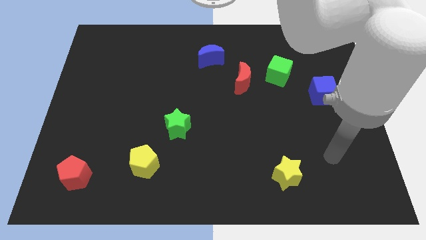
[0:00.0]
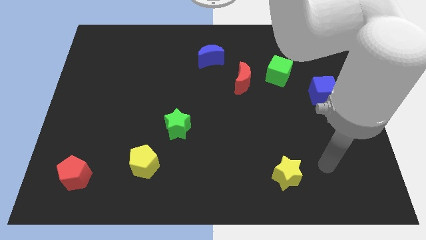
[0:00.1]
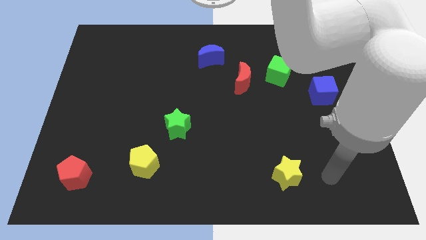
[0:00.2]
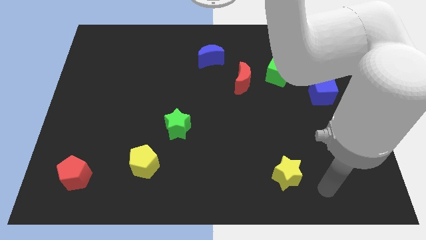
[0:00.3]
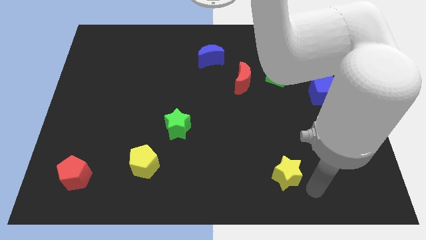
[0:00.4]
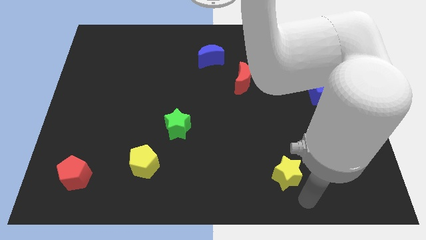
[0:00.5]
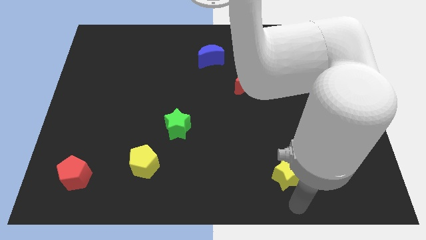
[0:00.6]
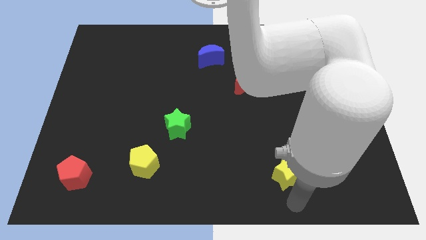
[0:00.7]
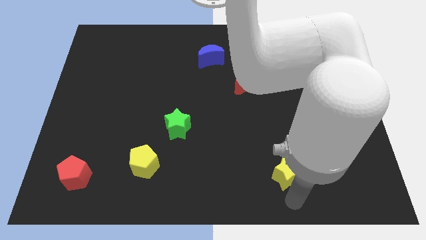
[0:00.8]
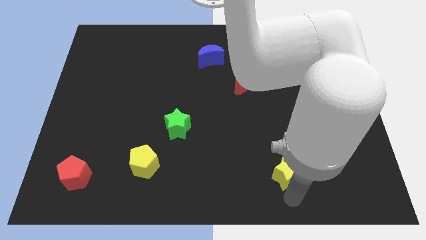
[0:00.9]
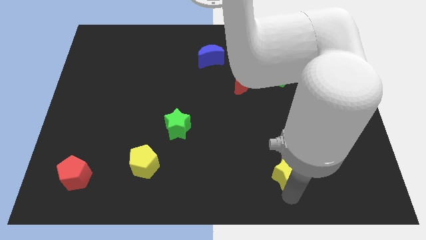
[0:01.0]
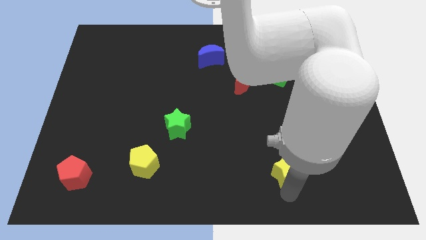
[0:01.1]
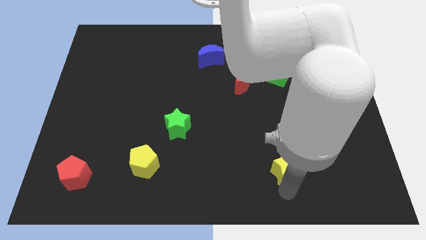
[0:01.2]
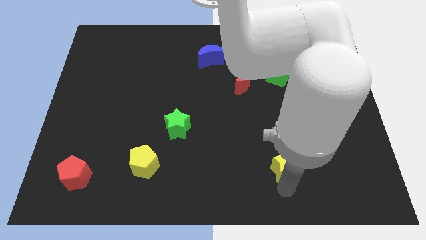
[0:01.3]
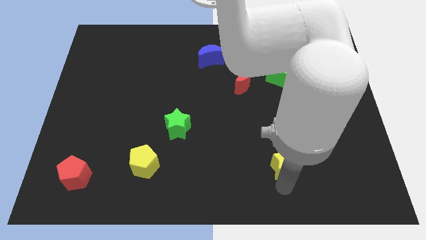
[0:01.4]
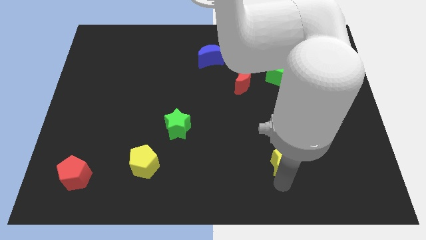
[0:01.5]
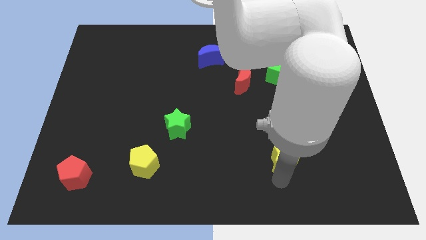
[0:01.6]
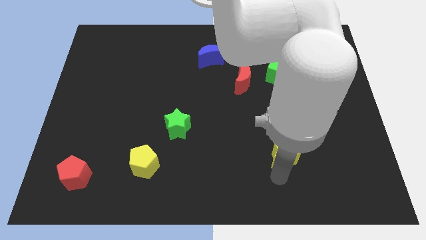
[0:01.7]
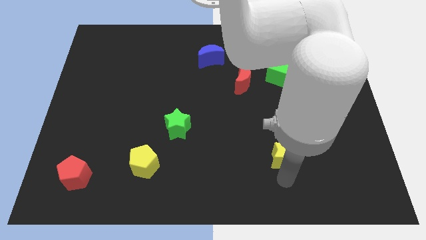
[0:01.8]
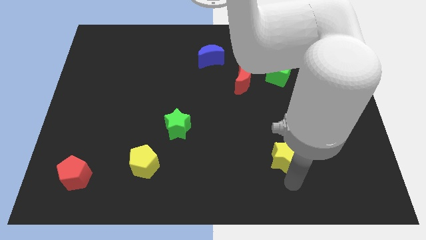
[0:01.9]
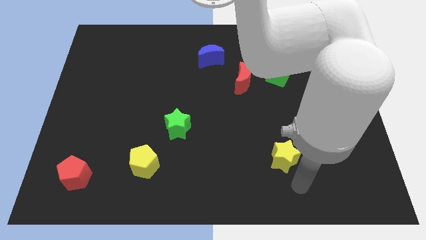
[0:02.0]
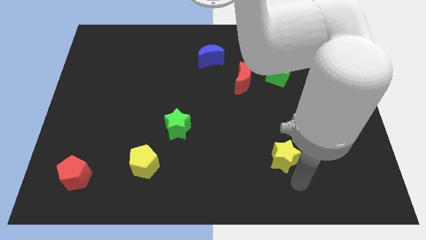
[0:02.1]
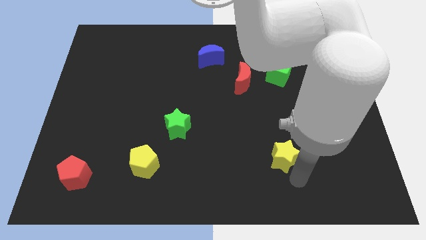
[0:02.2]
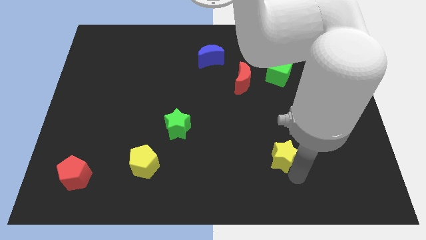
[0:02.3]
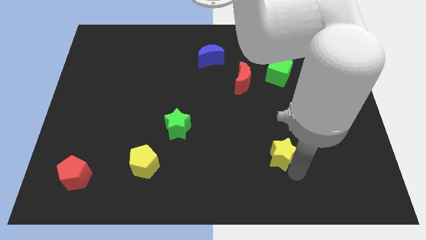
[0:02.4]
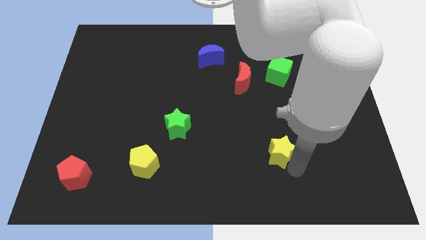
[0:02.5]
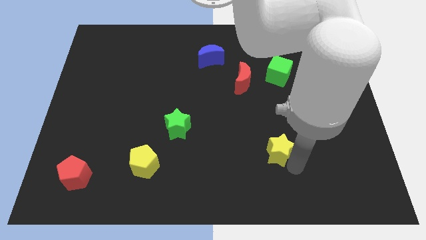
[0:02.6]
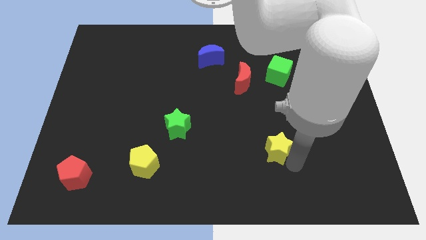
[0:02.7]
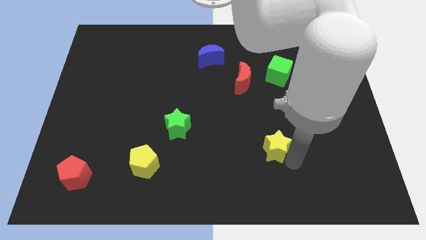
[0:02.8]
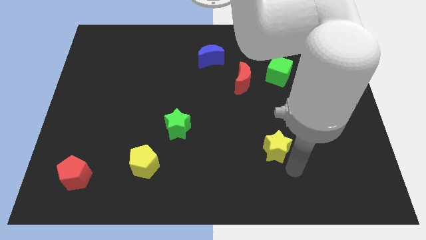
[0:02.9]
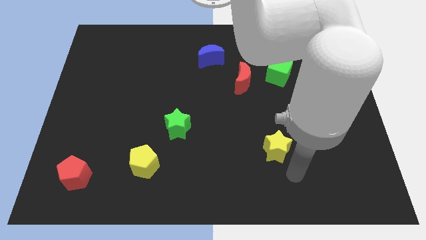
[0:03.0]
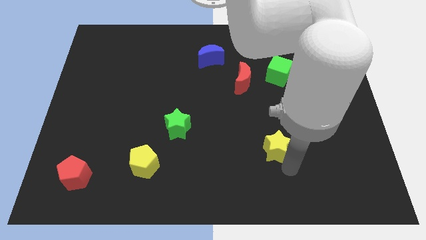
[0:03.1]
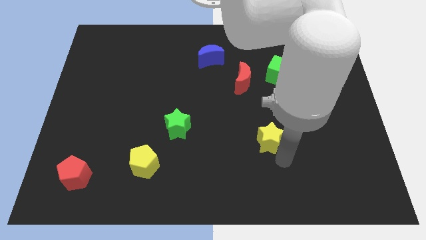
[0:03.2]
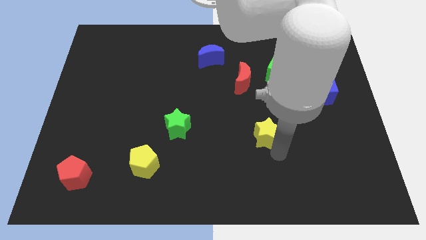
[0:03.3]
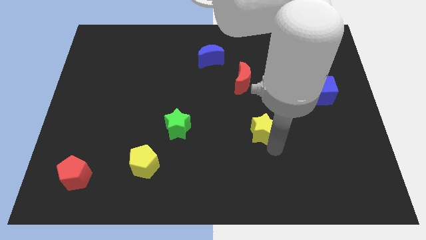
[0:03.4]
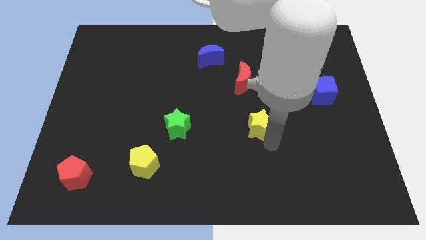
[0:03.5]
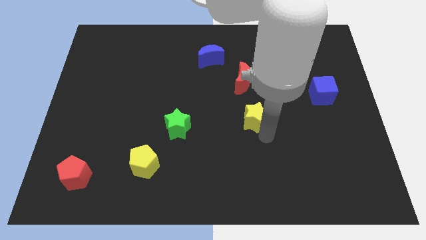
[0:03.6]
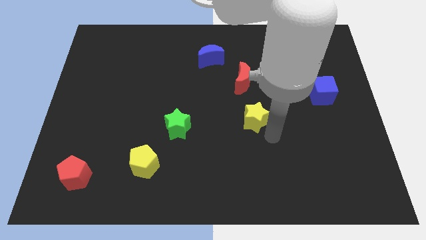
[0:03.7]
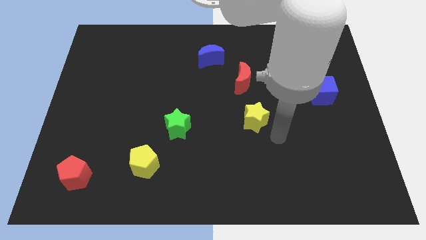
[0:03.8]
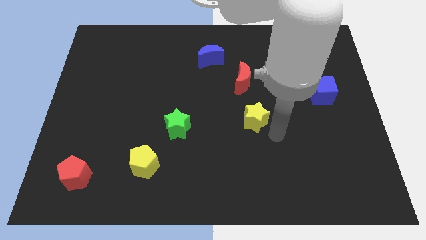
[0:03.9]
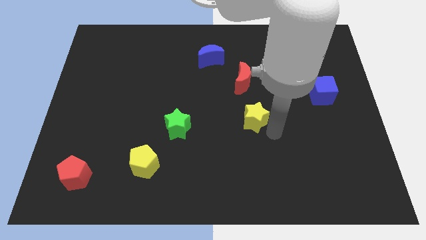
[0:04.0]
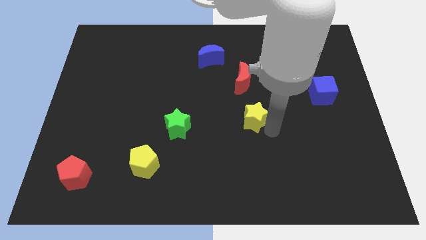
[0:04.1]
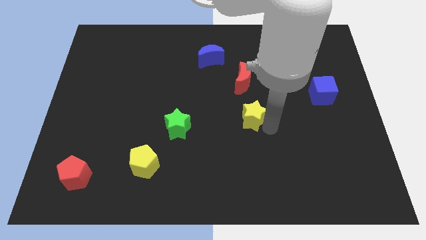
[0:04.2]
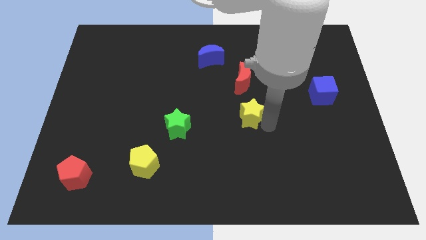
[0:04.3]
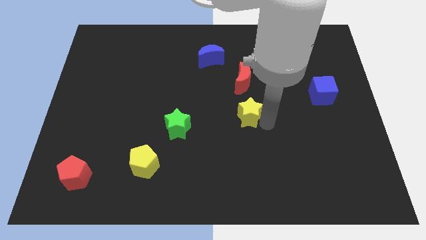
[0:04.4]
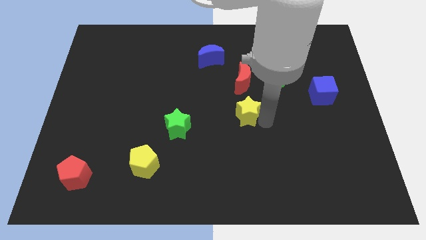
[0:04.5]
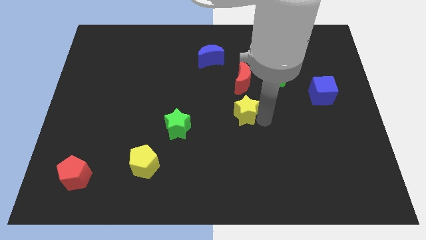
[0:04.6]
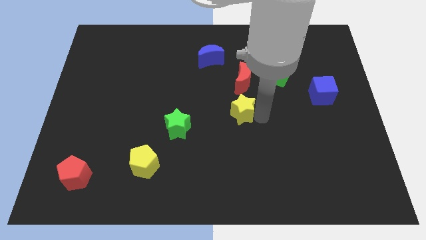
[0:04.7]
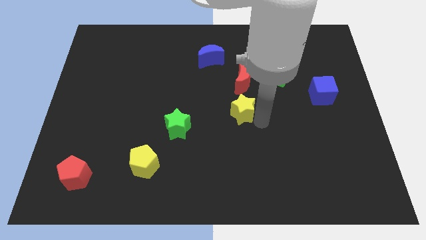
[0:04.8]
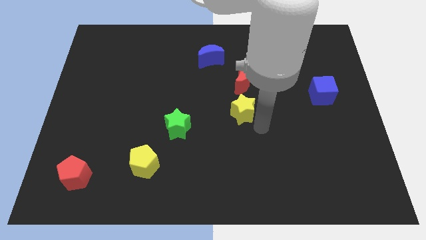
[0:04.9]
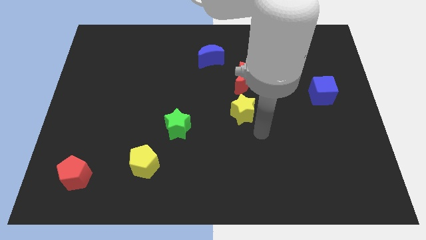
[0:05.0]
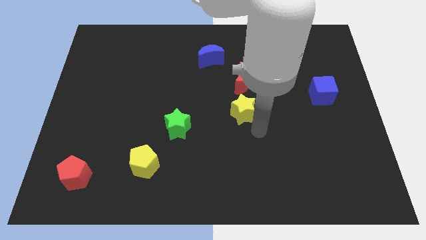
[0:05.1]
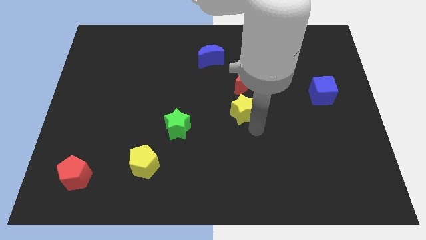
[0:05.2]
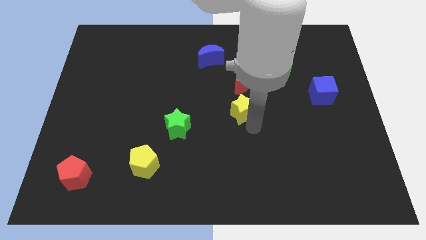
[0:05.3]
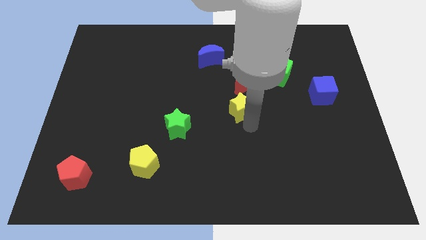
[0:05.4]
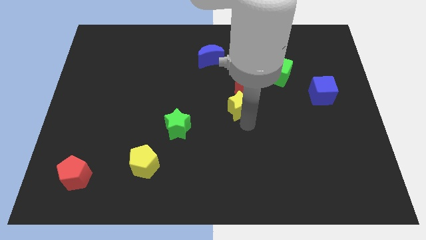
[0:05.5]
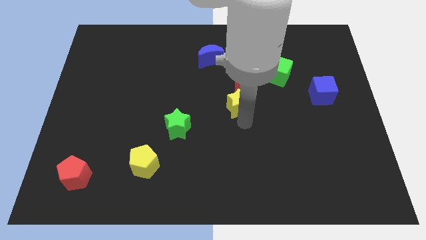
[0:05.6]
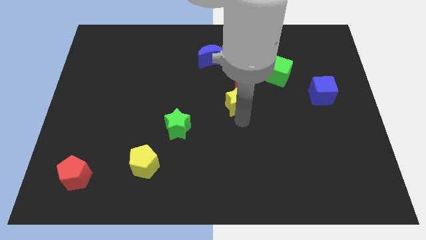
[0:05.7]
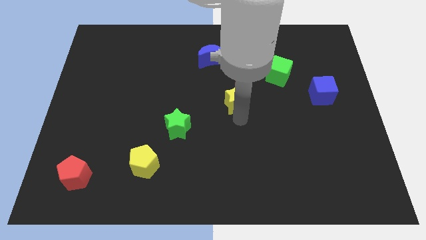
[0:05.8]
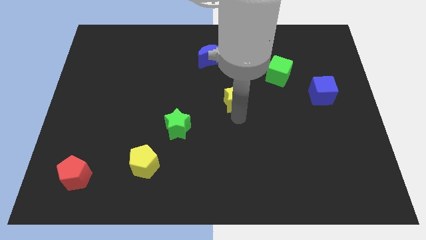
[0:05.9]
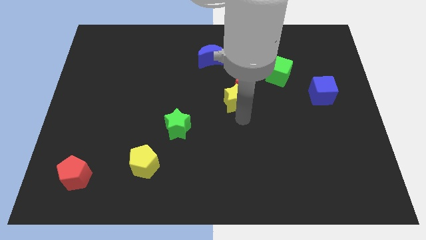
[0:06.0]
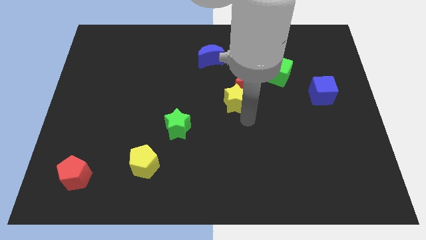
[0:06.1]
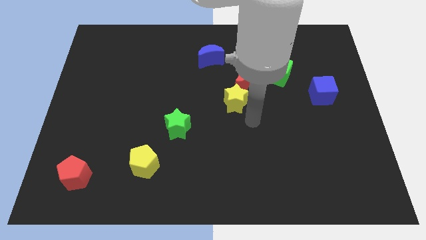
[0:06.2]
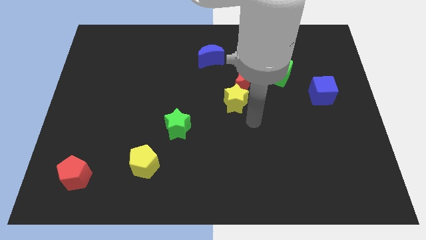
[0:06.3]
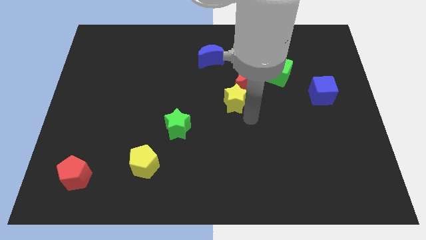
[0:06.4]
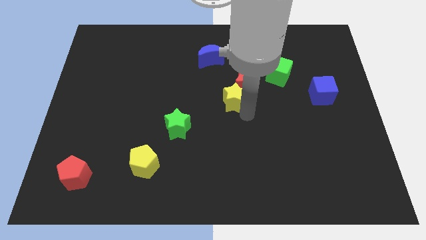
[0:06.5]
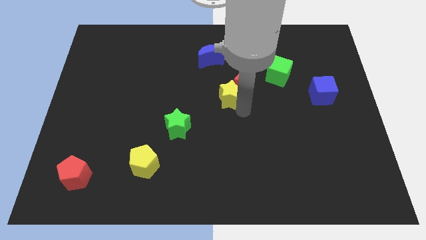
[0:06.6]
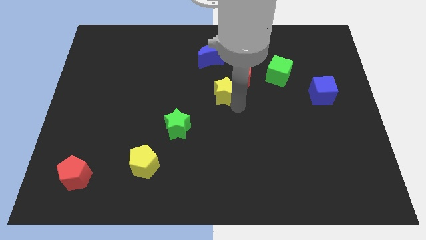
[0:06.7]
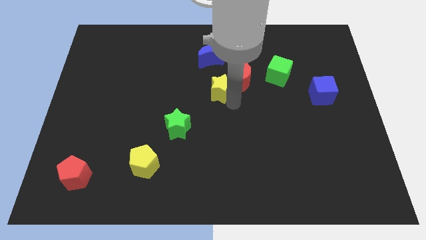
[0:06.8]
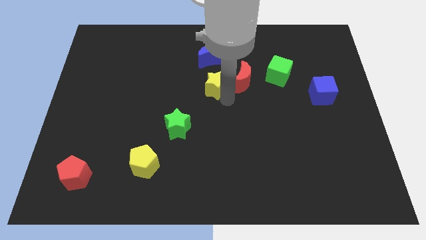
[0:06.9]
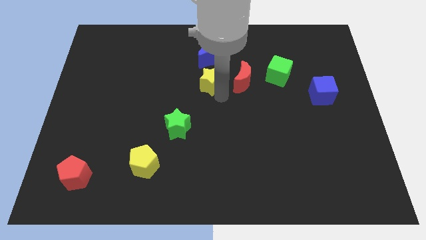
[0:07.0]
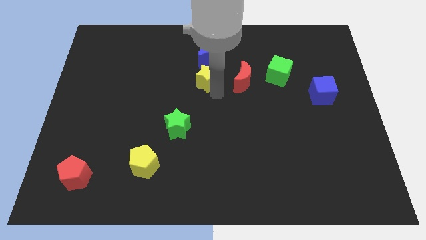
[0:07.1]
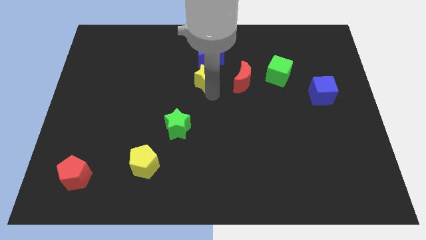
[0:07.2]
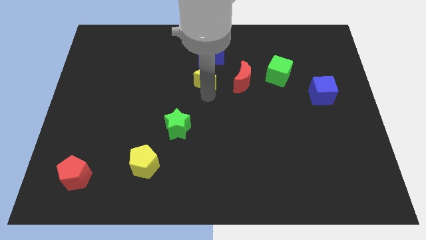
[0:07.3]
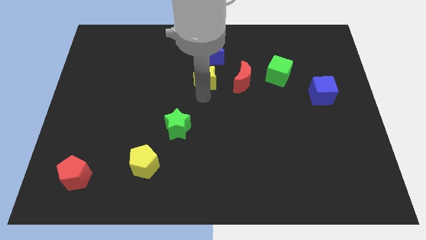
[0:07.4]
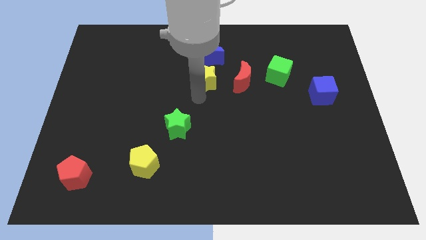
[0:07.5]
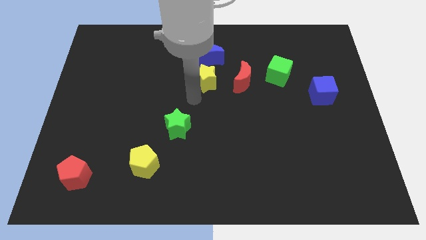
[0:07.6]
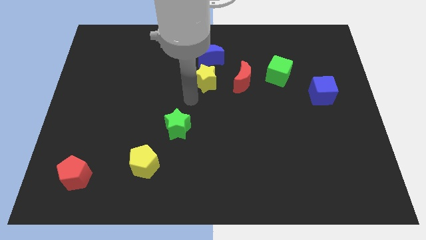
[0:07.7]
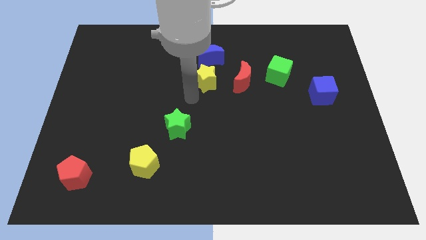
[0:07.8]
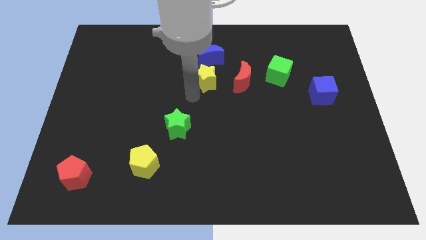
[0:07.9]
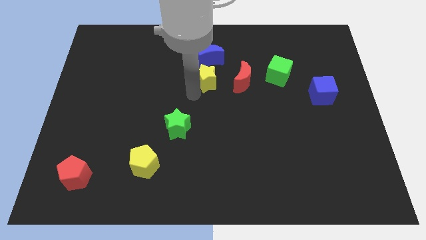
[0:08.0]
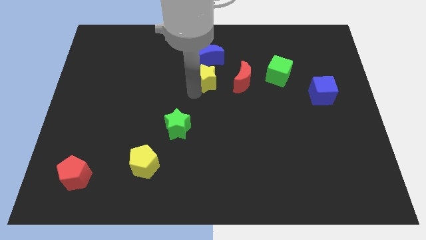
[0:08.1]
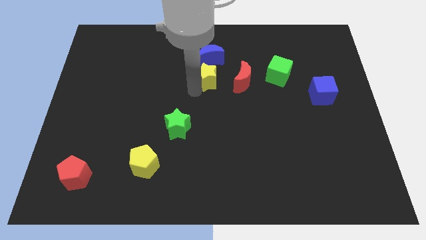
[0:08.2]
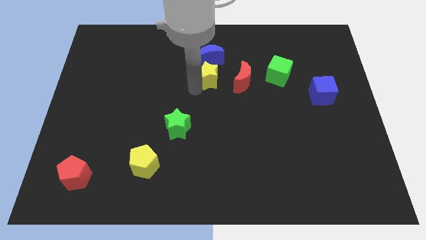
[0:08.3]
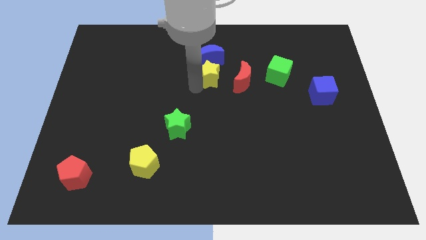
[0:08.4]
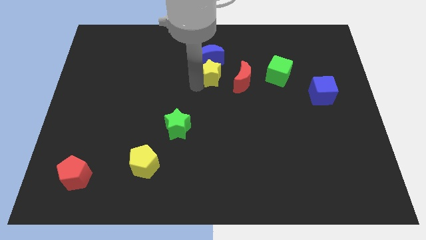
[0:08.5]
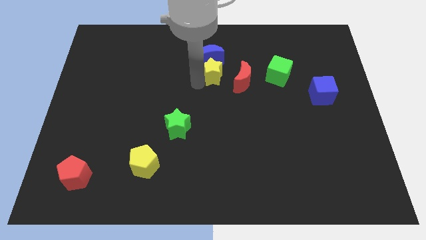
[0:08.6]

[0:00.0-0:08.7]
slide the yellow star close to the blue moon
